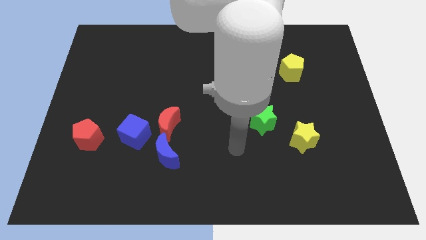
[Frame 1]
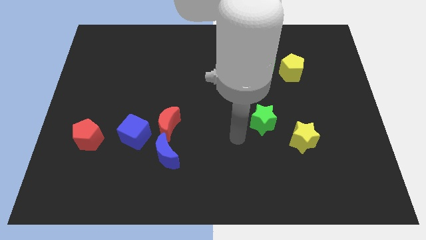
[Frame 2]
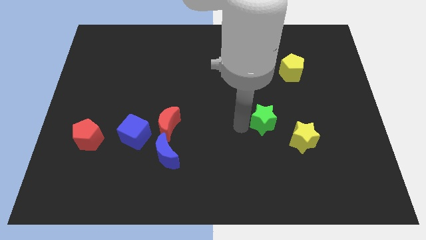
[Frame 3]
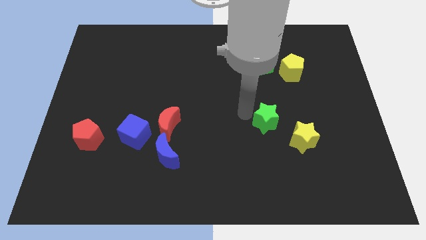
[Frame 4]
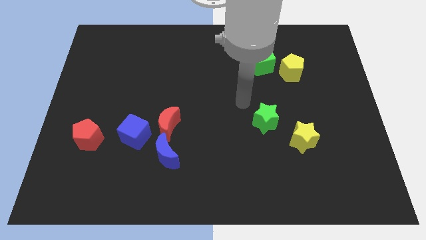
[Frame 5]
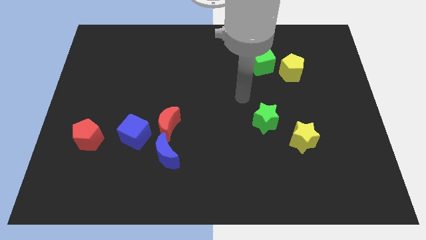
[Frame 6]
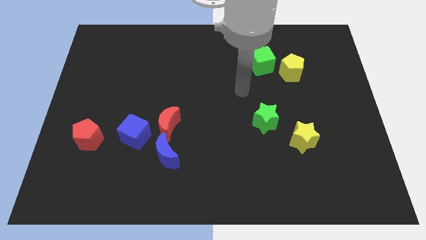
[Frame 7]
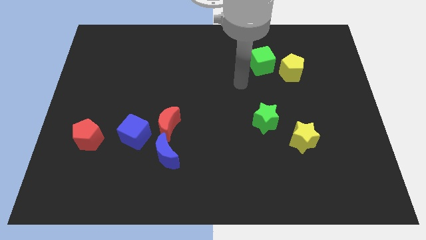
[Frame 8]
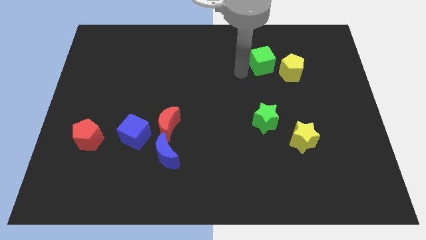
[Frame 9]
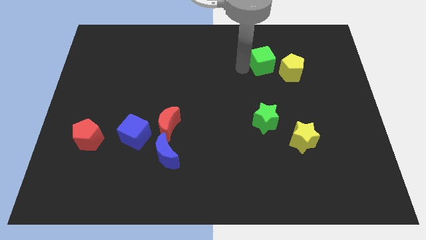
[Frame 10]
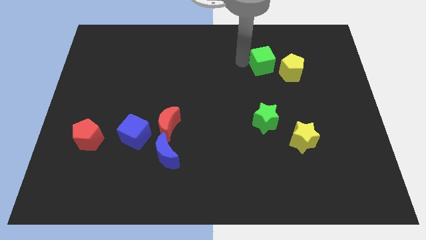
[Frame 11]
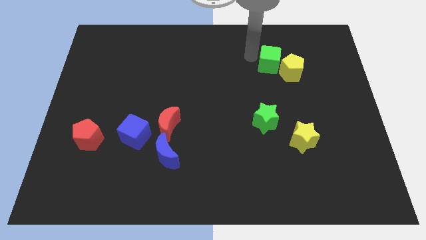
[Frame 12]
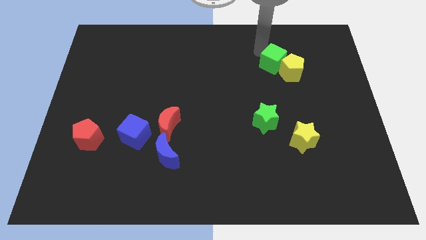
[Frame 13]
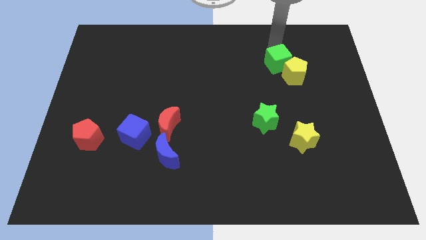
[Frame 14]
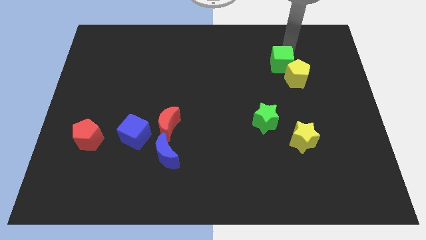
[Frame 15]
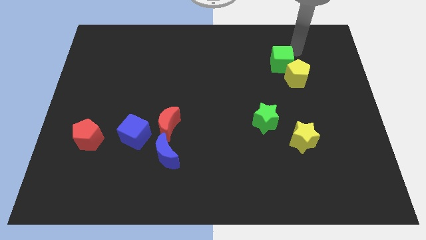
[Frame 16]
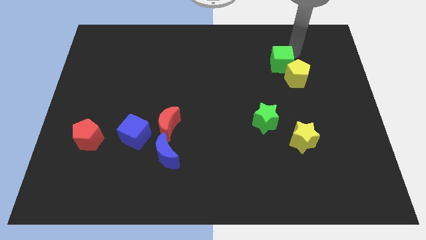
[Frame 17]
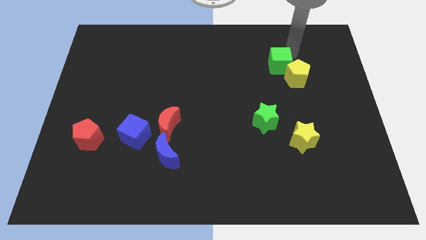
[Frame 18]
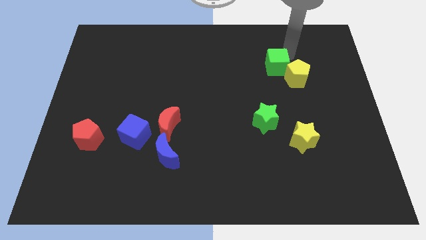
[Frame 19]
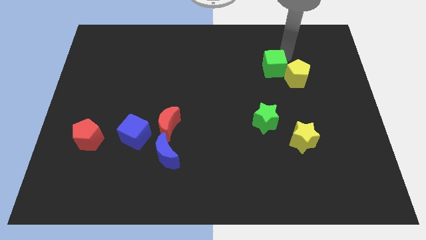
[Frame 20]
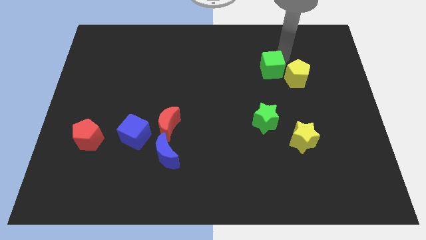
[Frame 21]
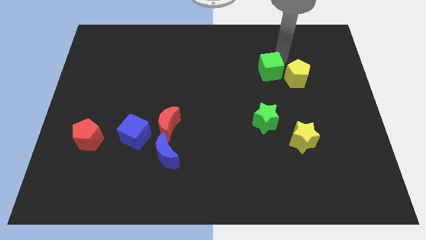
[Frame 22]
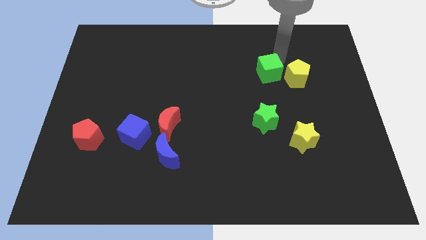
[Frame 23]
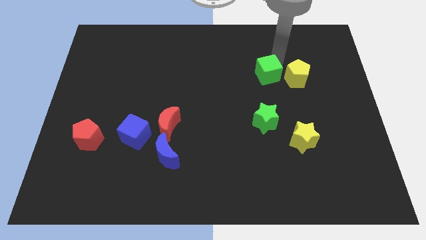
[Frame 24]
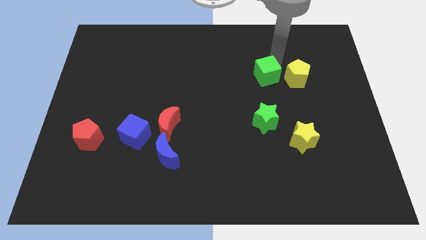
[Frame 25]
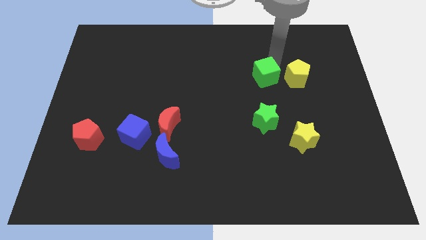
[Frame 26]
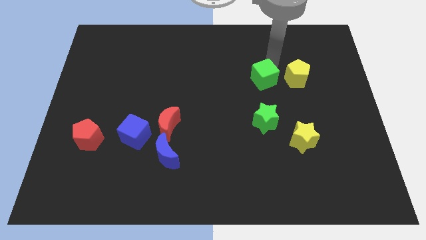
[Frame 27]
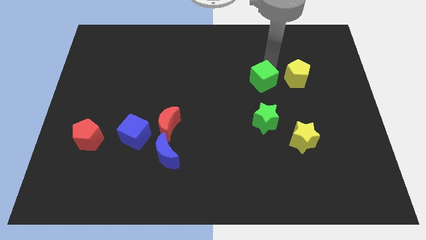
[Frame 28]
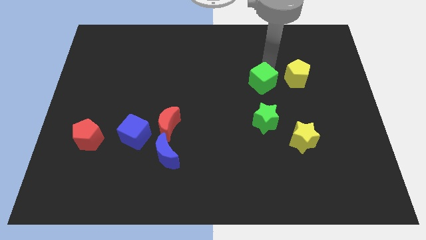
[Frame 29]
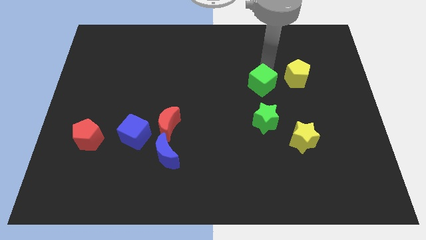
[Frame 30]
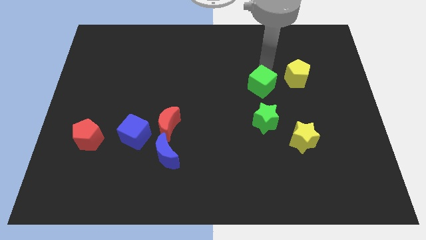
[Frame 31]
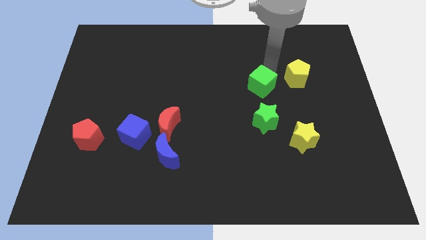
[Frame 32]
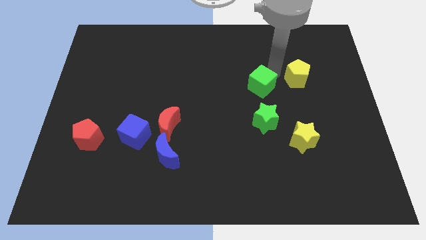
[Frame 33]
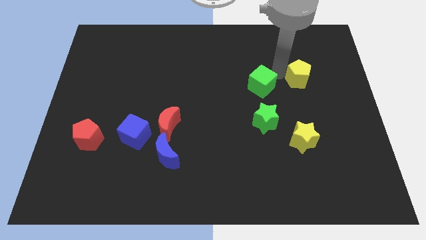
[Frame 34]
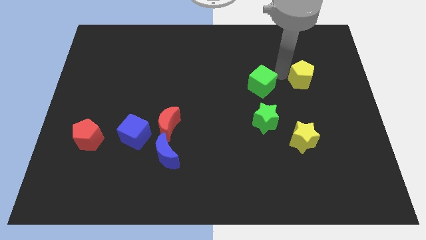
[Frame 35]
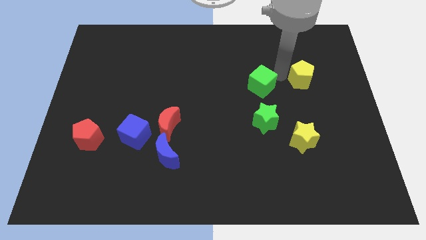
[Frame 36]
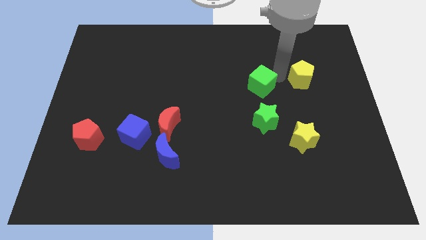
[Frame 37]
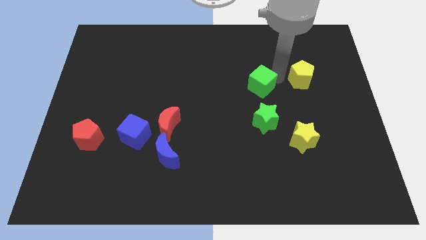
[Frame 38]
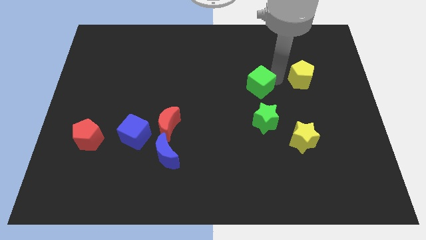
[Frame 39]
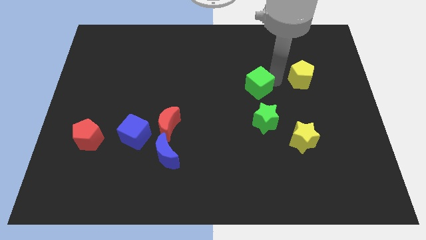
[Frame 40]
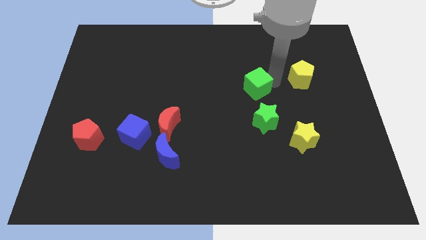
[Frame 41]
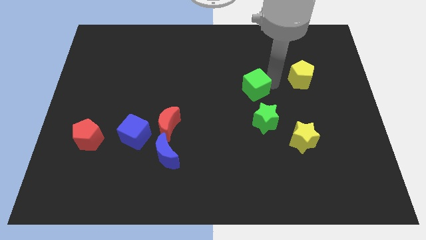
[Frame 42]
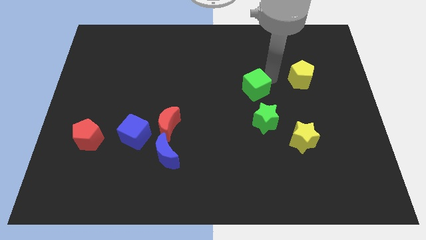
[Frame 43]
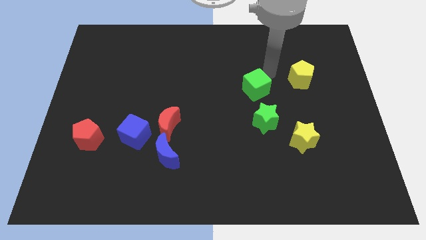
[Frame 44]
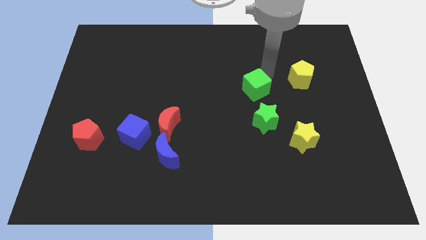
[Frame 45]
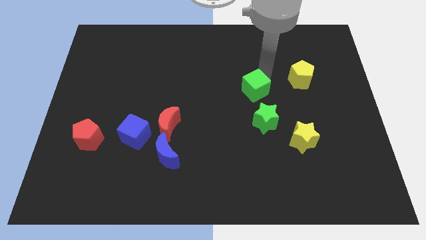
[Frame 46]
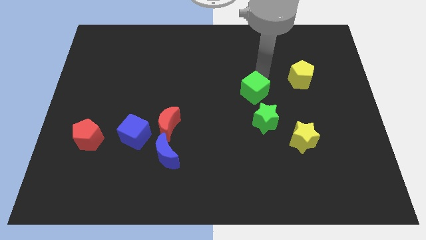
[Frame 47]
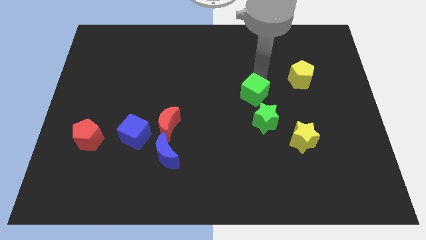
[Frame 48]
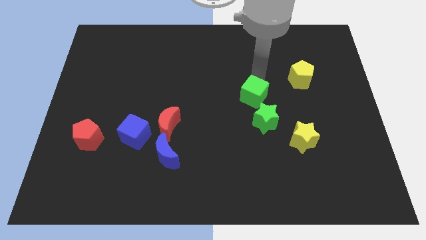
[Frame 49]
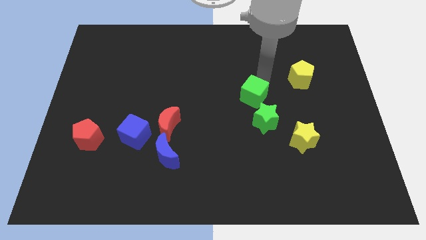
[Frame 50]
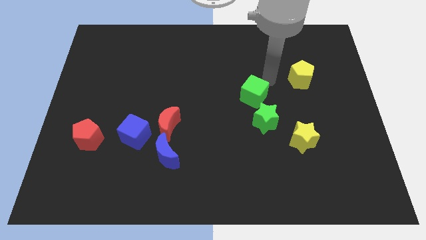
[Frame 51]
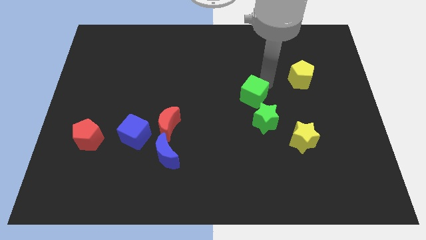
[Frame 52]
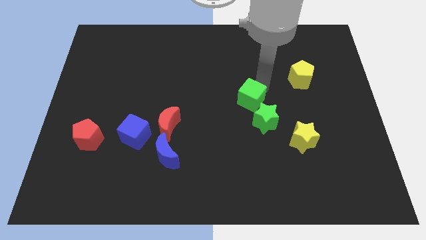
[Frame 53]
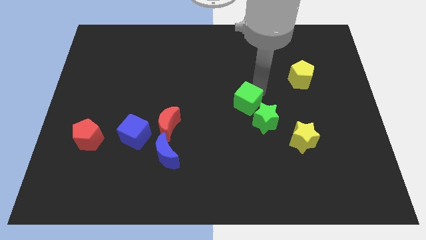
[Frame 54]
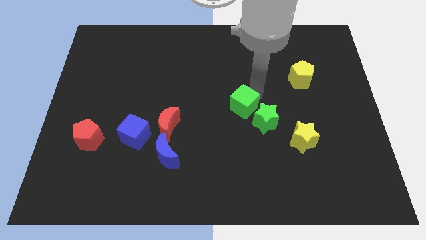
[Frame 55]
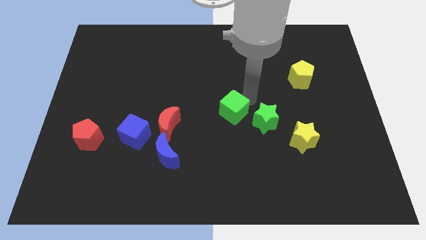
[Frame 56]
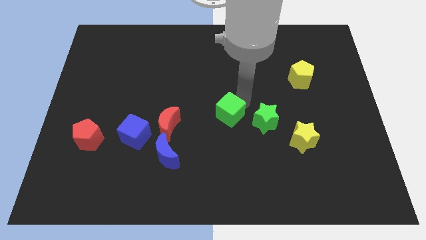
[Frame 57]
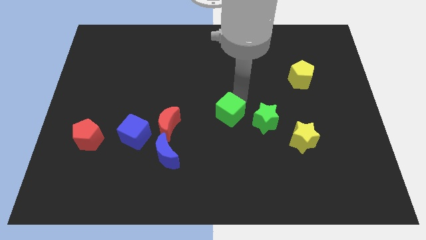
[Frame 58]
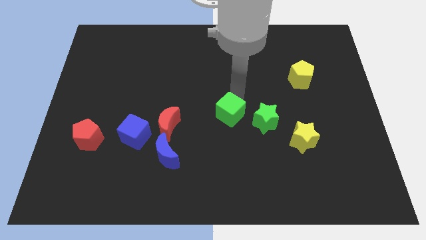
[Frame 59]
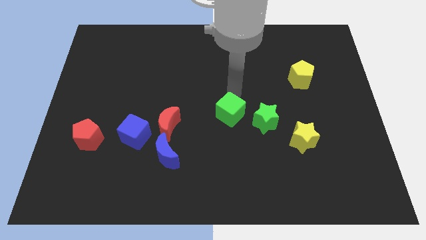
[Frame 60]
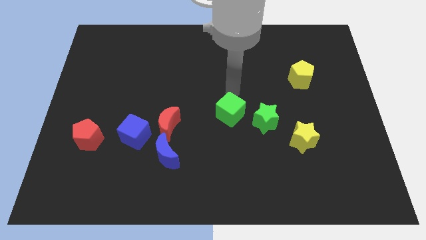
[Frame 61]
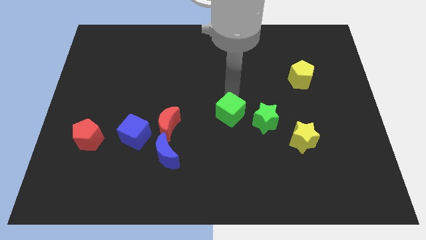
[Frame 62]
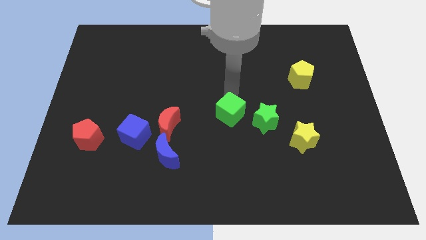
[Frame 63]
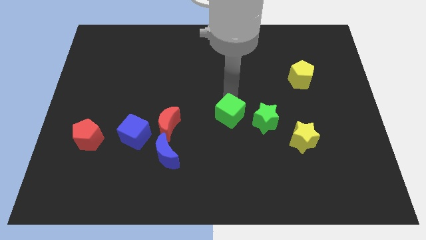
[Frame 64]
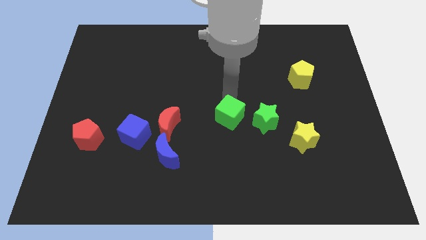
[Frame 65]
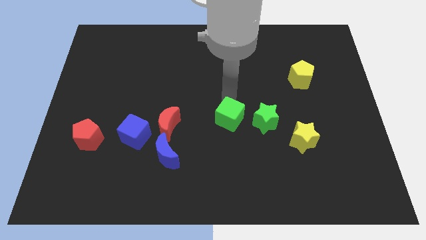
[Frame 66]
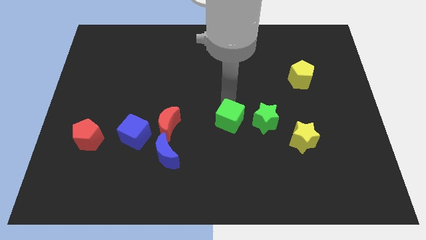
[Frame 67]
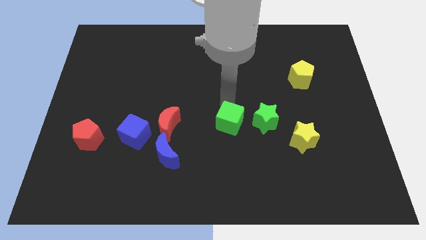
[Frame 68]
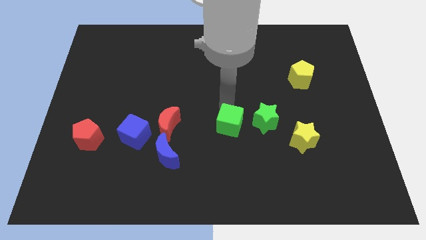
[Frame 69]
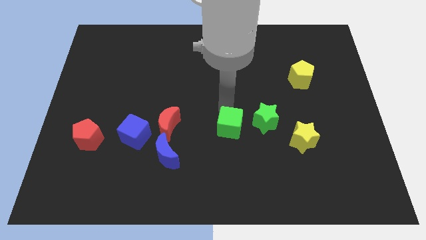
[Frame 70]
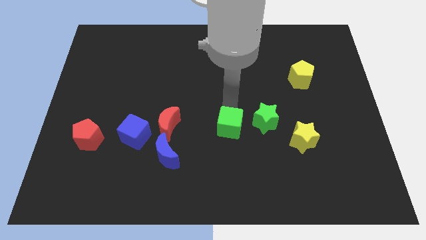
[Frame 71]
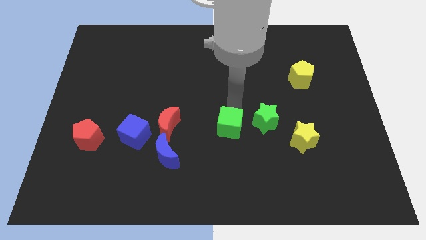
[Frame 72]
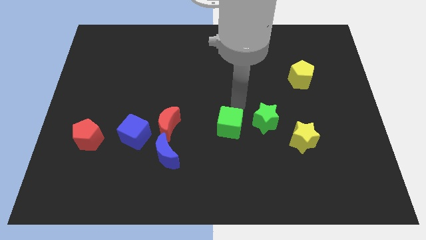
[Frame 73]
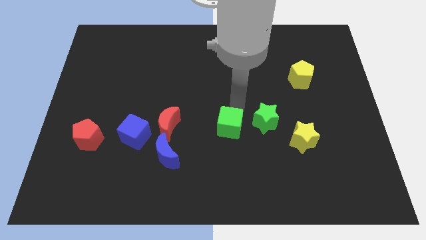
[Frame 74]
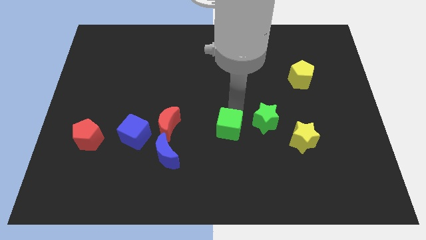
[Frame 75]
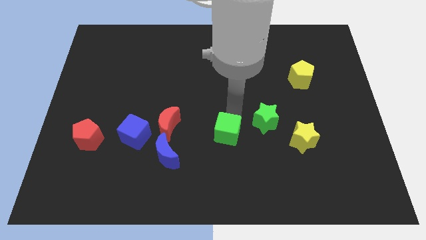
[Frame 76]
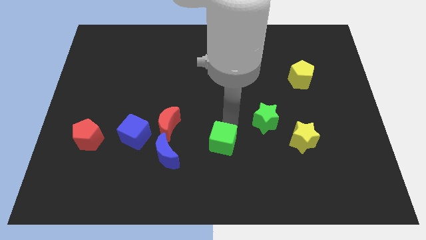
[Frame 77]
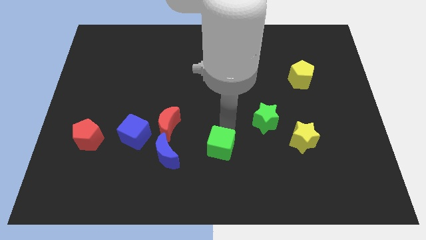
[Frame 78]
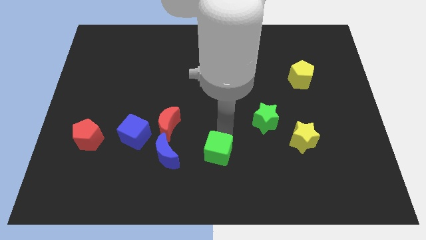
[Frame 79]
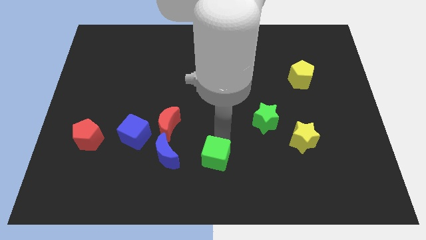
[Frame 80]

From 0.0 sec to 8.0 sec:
slide the green cube to the bottom
